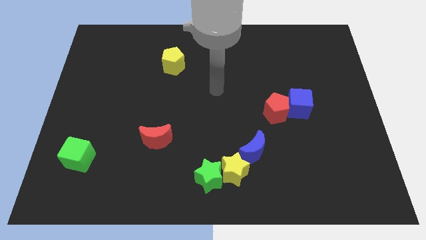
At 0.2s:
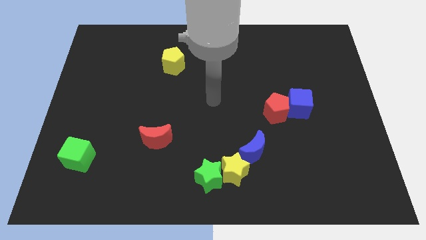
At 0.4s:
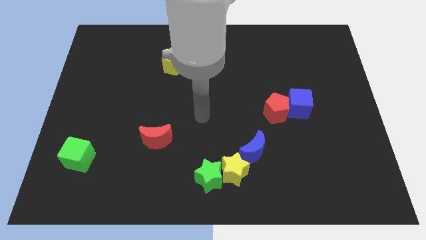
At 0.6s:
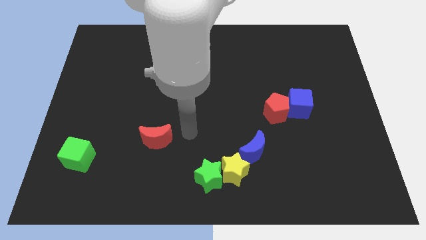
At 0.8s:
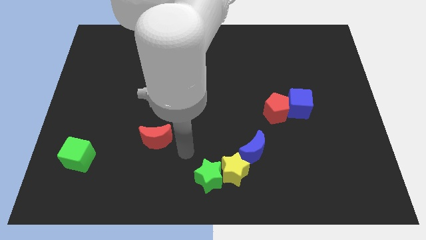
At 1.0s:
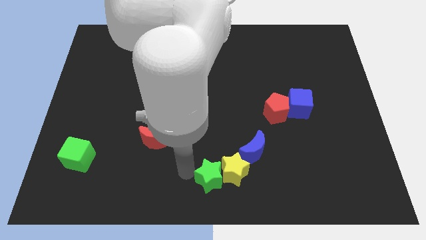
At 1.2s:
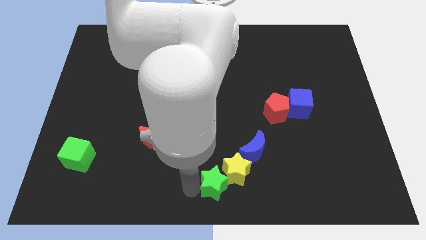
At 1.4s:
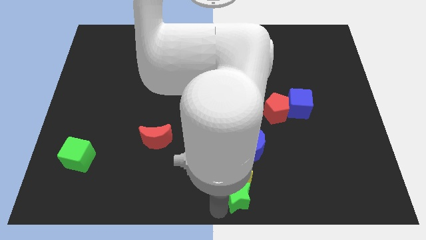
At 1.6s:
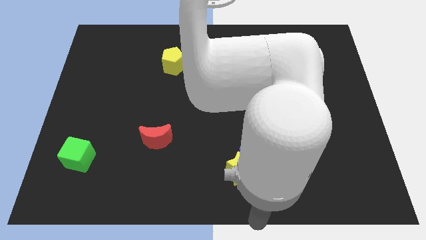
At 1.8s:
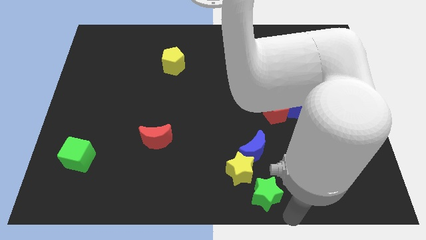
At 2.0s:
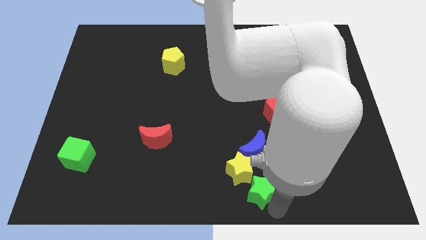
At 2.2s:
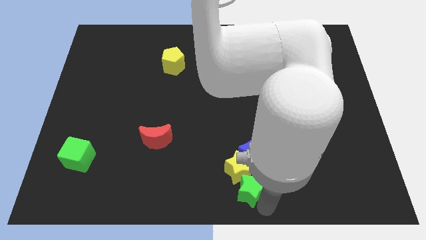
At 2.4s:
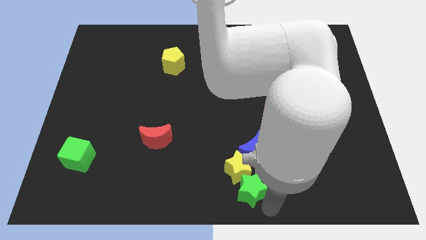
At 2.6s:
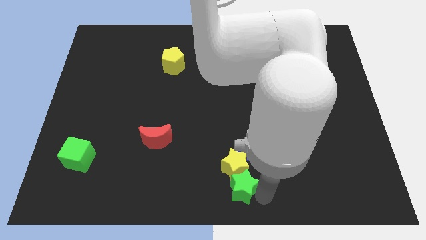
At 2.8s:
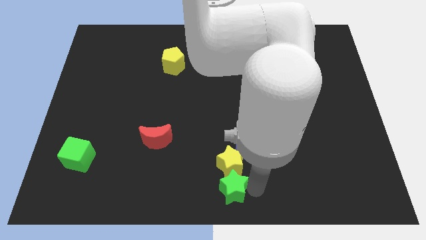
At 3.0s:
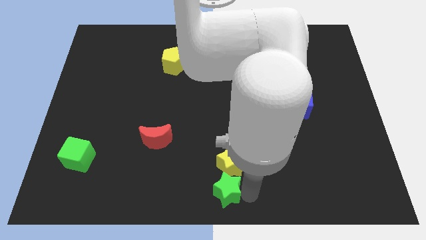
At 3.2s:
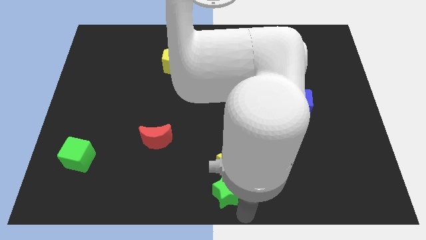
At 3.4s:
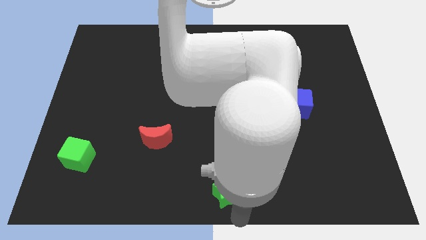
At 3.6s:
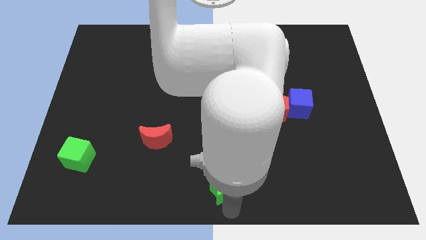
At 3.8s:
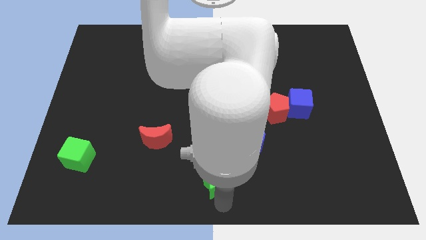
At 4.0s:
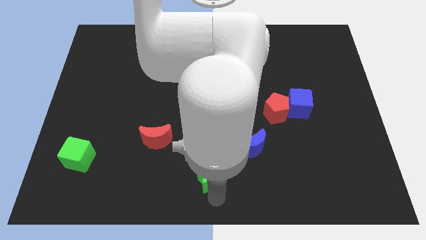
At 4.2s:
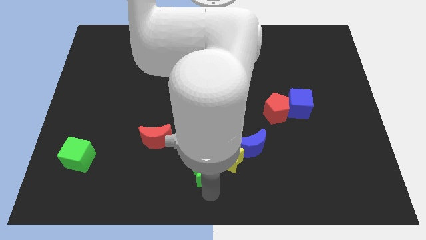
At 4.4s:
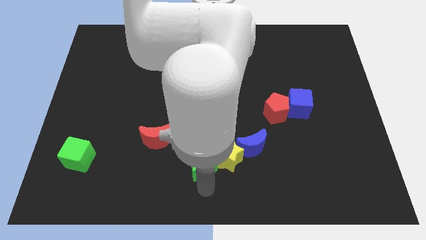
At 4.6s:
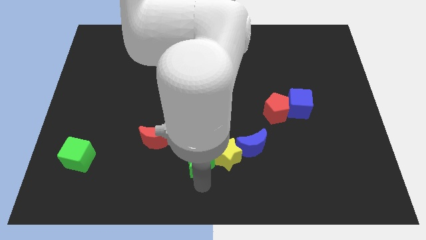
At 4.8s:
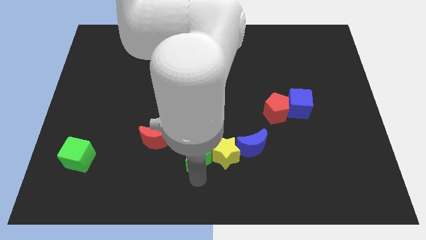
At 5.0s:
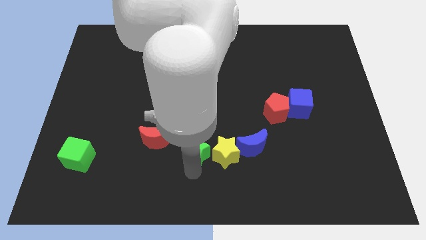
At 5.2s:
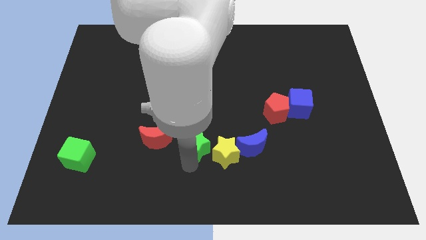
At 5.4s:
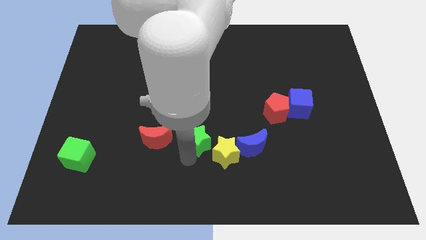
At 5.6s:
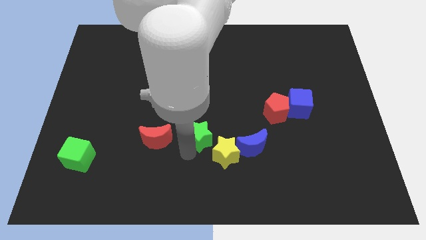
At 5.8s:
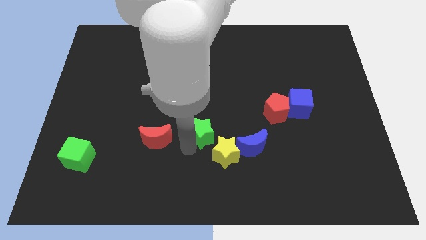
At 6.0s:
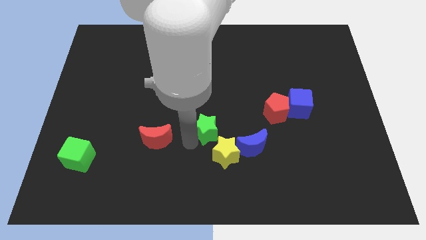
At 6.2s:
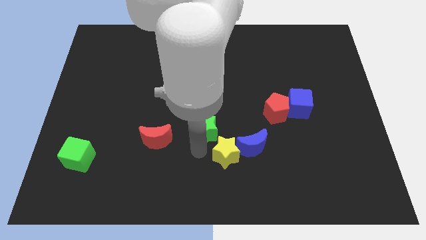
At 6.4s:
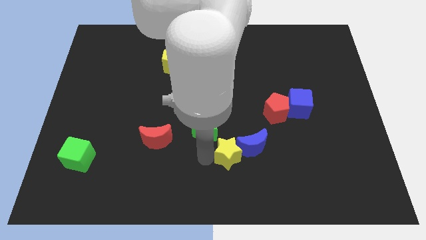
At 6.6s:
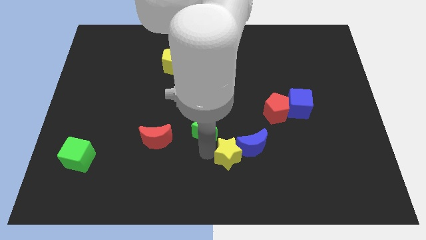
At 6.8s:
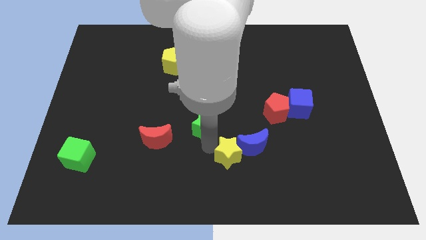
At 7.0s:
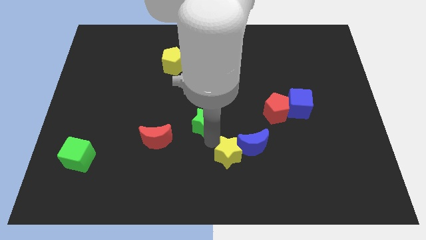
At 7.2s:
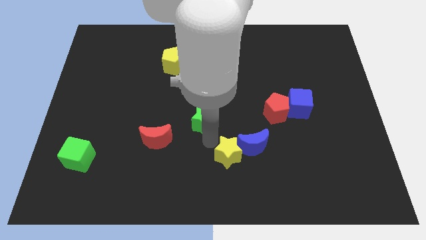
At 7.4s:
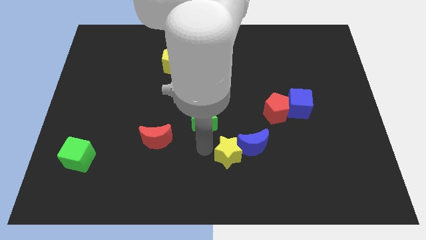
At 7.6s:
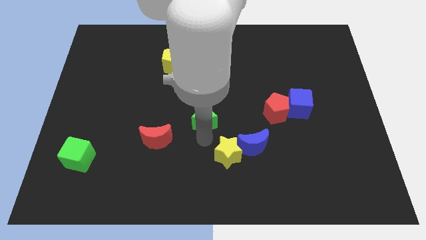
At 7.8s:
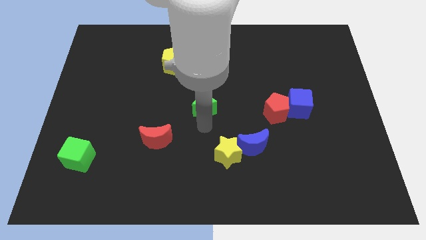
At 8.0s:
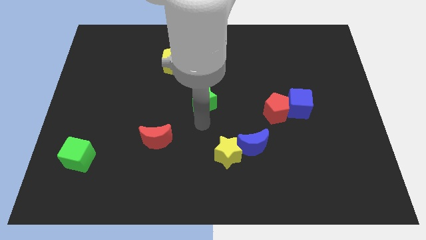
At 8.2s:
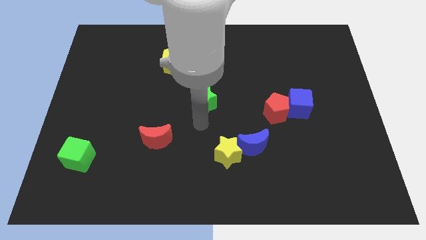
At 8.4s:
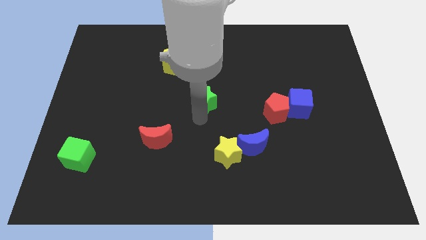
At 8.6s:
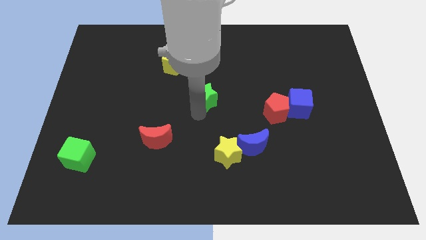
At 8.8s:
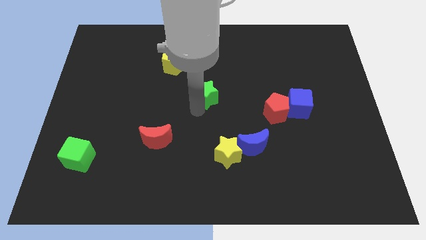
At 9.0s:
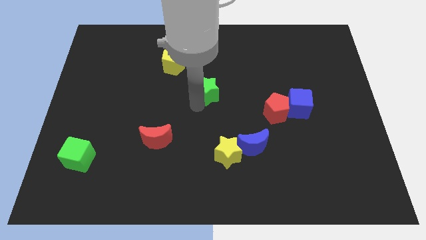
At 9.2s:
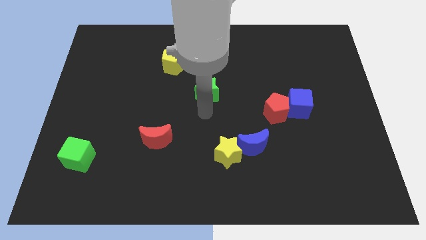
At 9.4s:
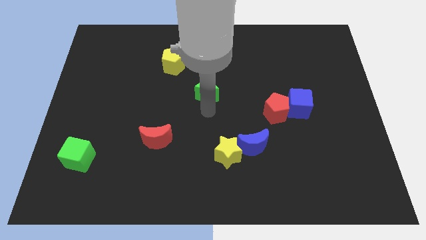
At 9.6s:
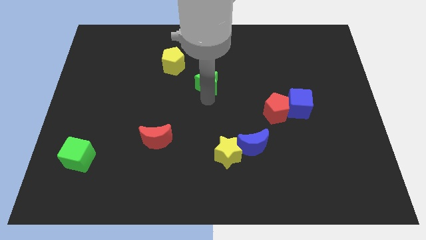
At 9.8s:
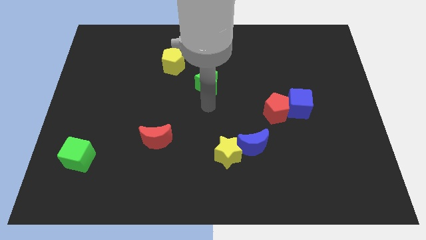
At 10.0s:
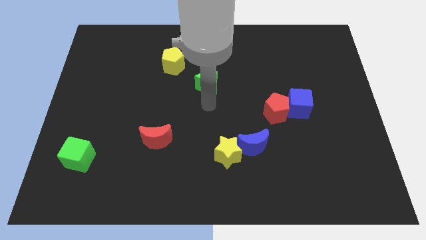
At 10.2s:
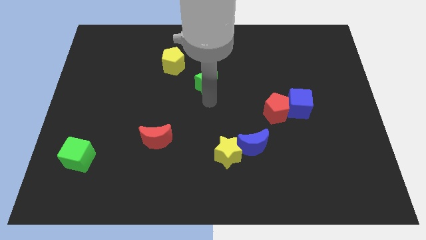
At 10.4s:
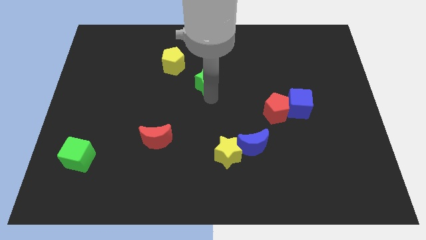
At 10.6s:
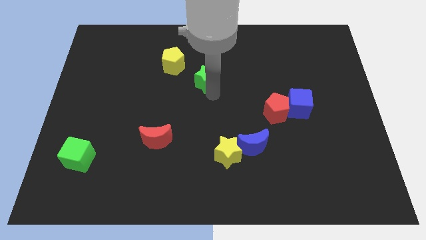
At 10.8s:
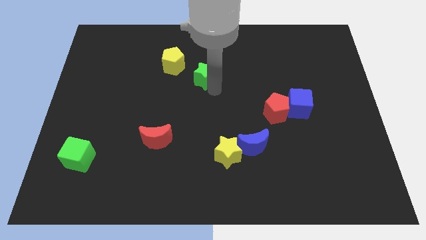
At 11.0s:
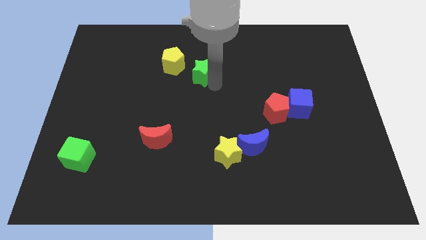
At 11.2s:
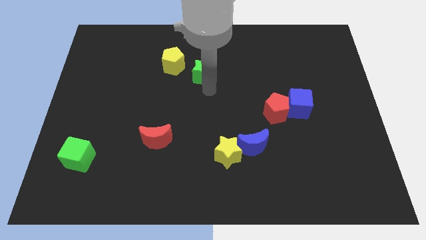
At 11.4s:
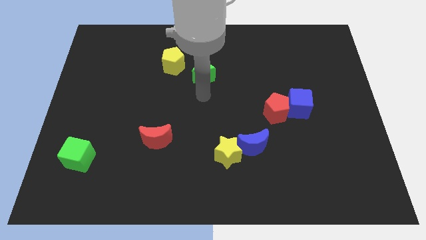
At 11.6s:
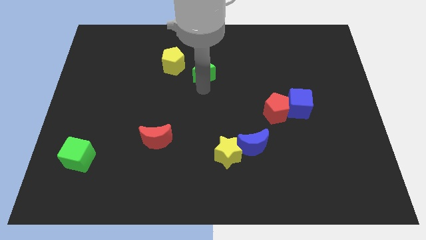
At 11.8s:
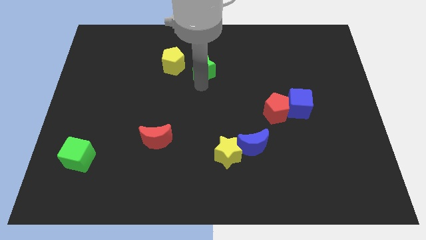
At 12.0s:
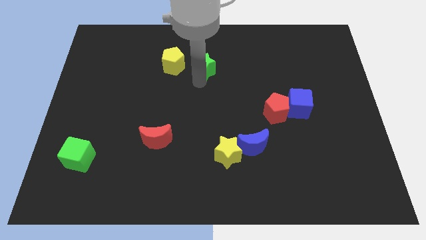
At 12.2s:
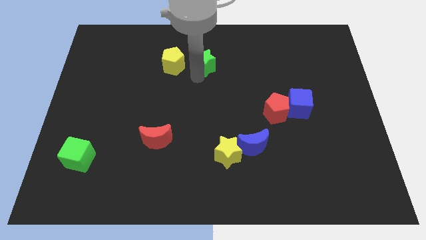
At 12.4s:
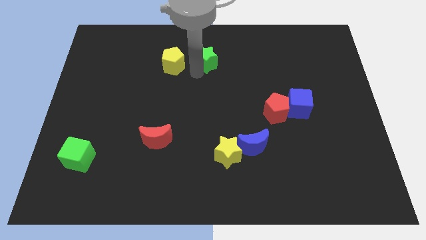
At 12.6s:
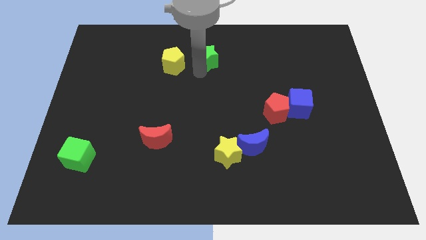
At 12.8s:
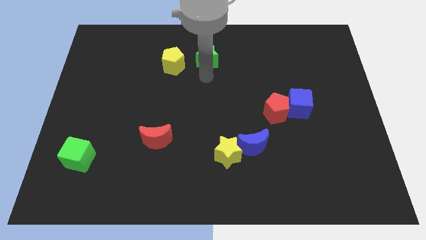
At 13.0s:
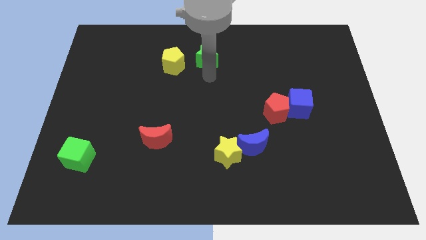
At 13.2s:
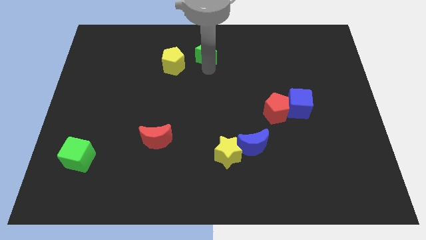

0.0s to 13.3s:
push the green star to the top side

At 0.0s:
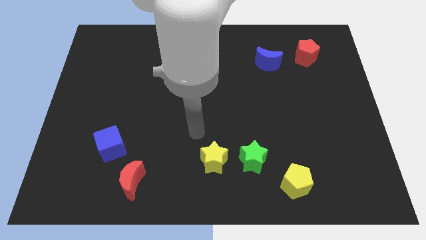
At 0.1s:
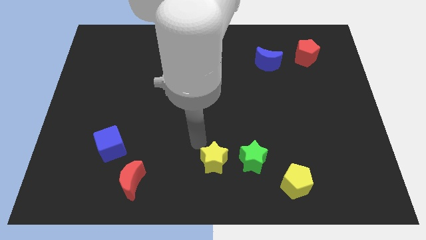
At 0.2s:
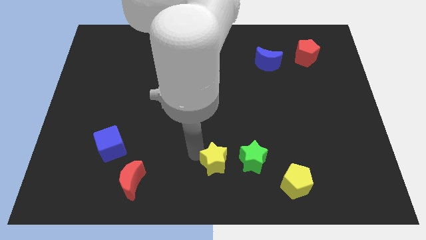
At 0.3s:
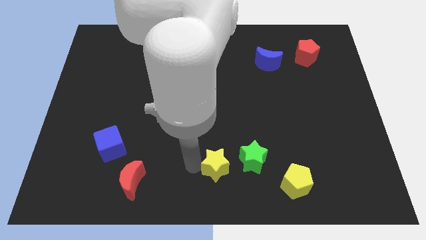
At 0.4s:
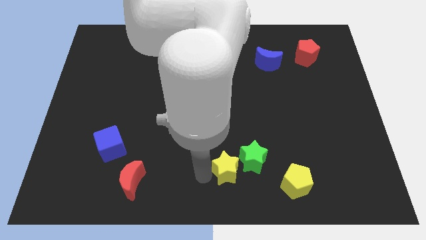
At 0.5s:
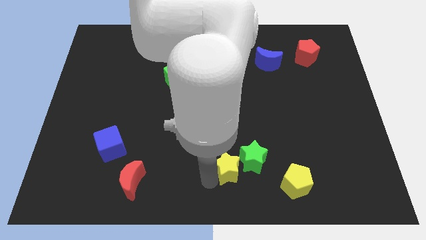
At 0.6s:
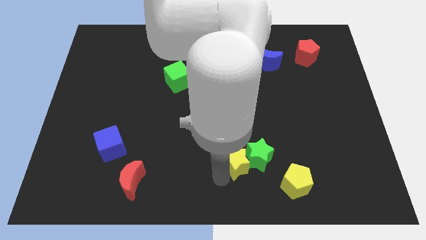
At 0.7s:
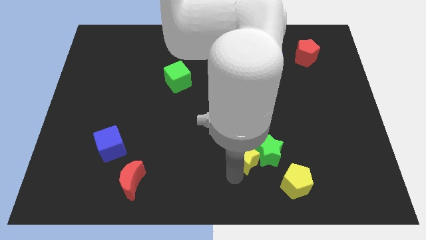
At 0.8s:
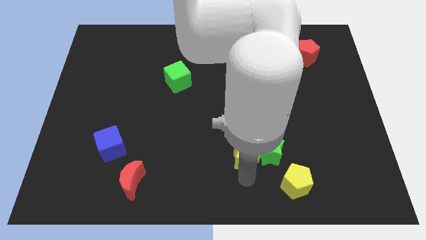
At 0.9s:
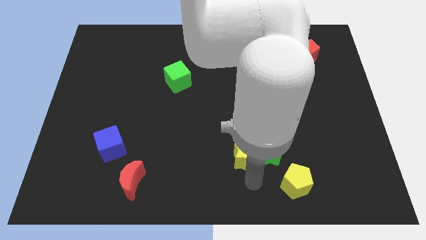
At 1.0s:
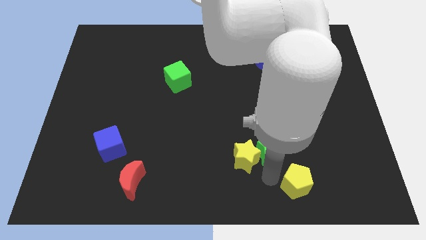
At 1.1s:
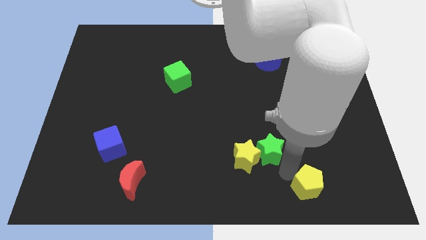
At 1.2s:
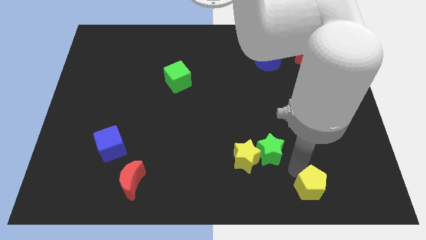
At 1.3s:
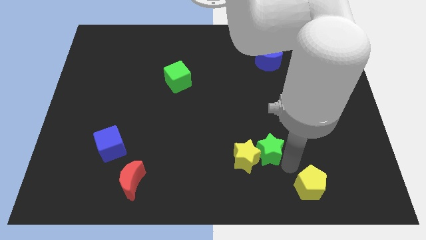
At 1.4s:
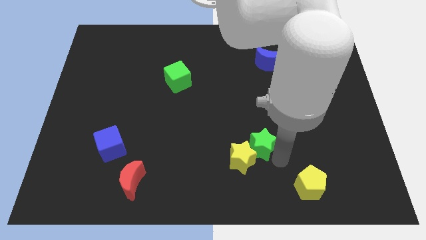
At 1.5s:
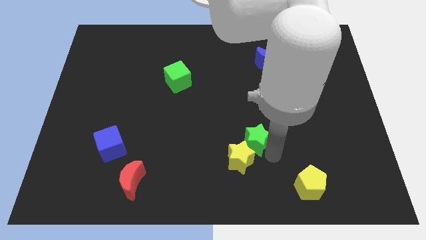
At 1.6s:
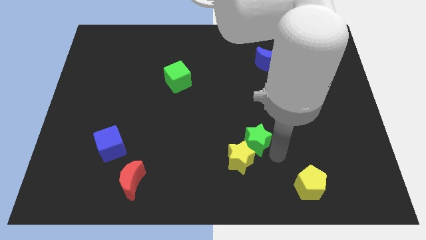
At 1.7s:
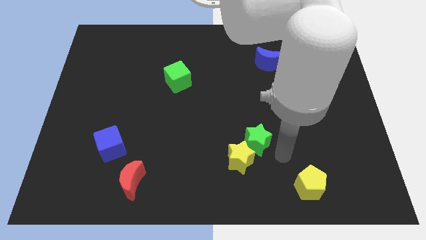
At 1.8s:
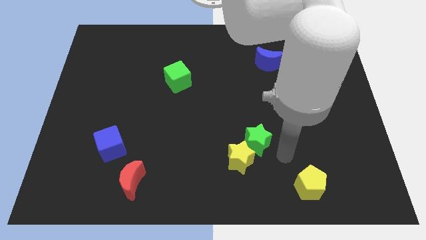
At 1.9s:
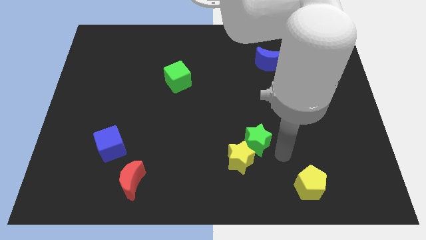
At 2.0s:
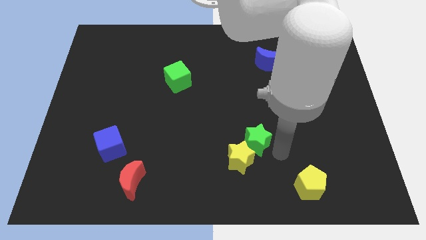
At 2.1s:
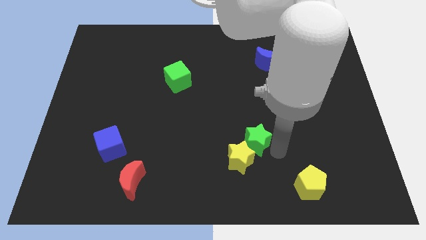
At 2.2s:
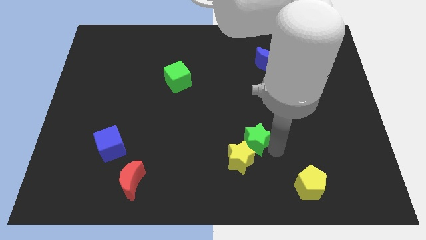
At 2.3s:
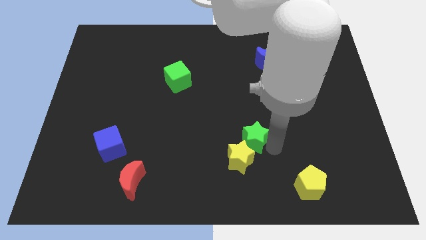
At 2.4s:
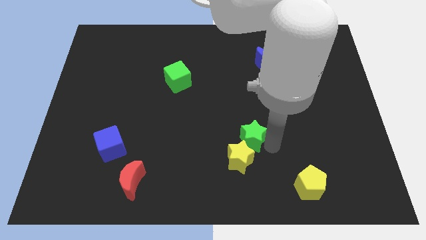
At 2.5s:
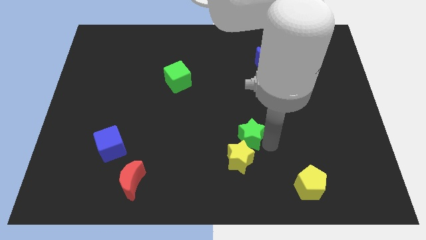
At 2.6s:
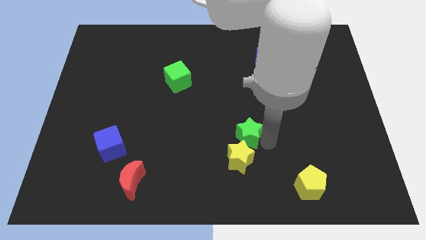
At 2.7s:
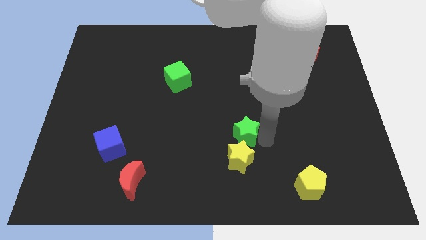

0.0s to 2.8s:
push the green star to the middle
